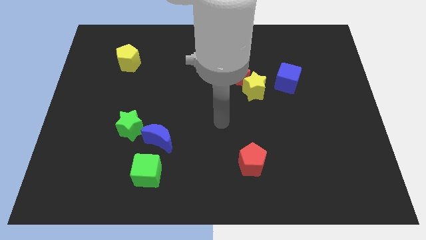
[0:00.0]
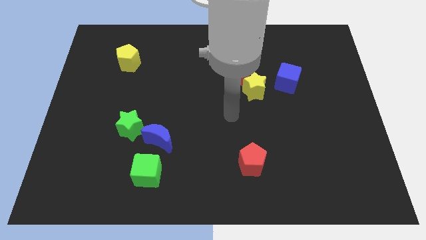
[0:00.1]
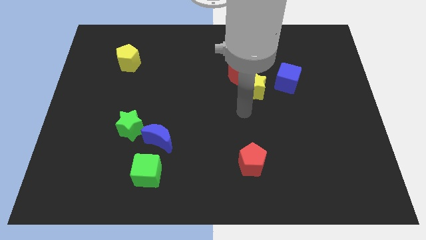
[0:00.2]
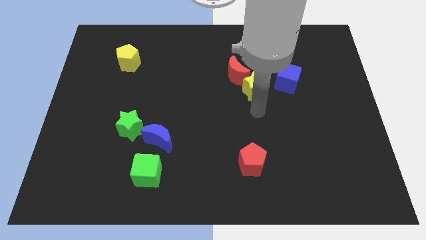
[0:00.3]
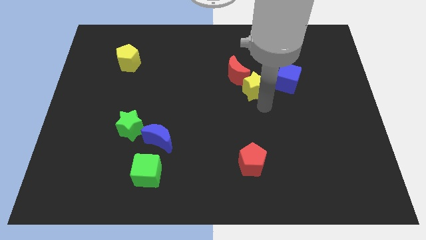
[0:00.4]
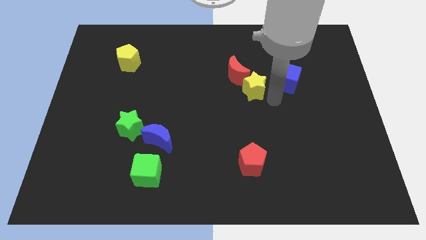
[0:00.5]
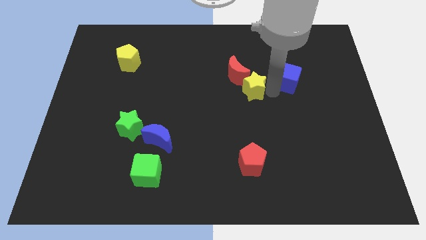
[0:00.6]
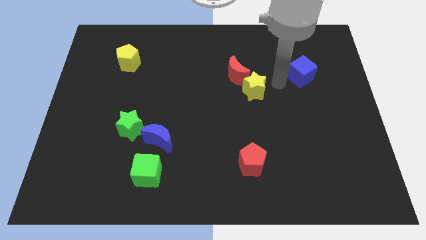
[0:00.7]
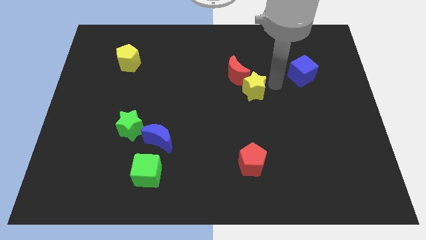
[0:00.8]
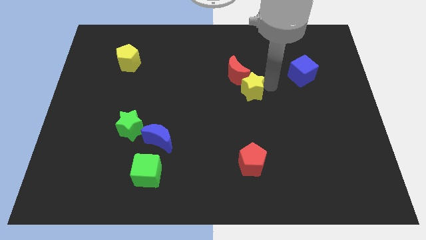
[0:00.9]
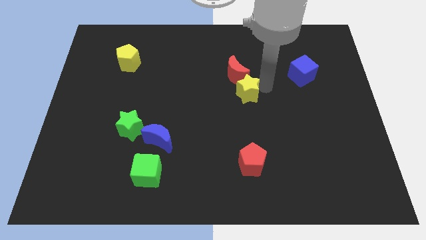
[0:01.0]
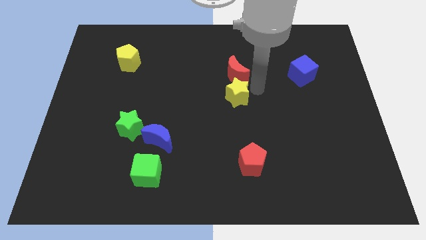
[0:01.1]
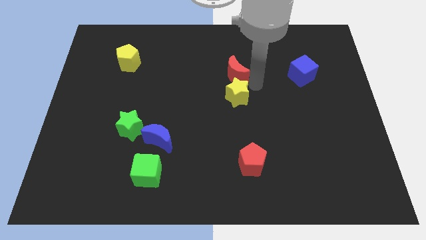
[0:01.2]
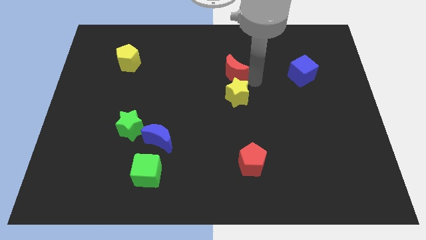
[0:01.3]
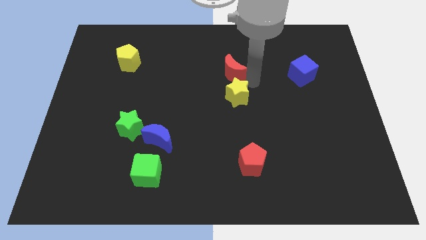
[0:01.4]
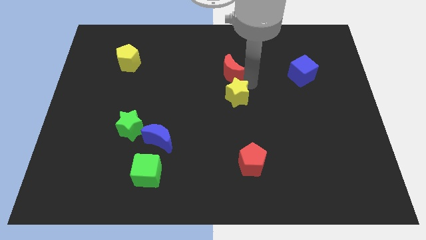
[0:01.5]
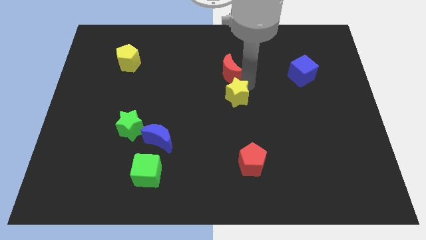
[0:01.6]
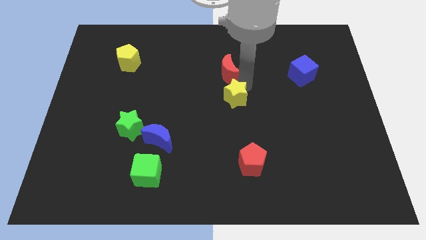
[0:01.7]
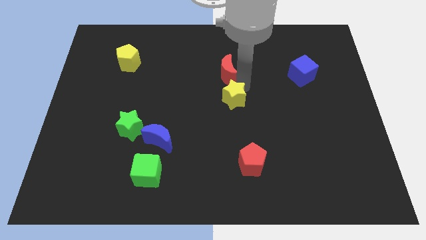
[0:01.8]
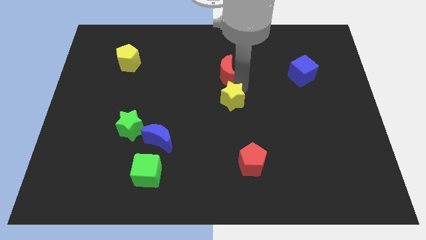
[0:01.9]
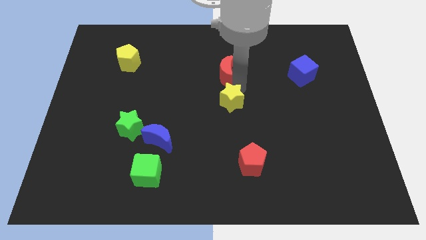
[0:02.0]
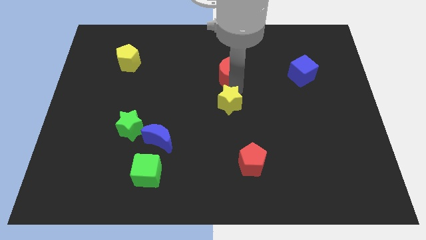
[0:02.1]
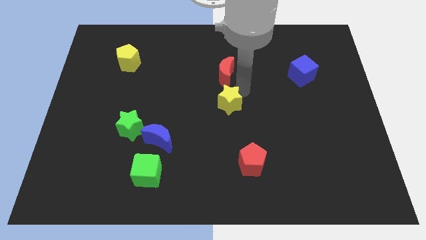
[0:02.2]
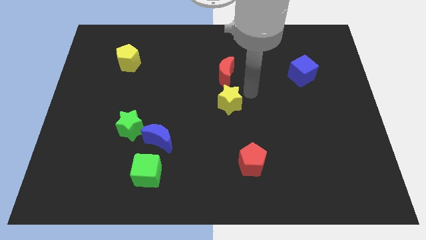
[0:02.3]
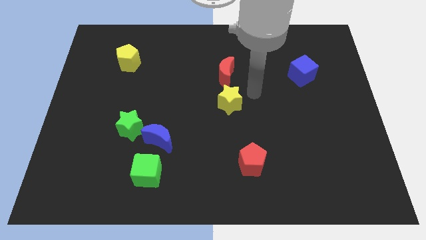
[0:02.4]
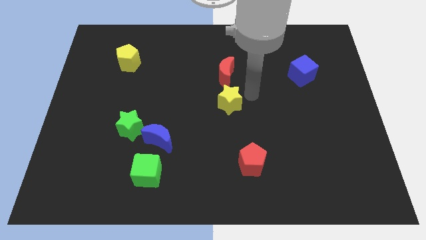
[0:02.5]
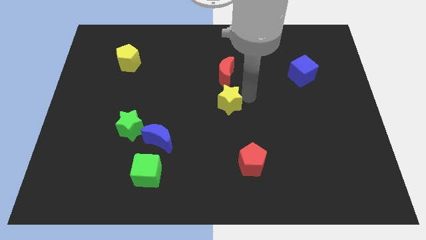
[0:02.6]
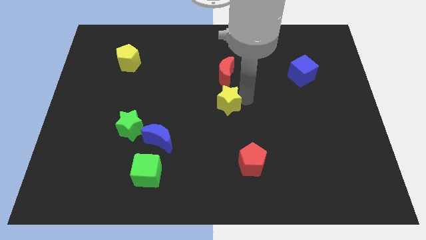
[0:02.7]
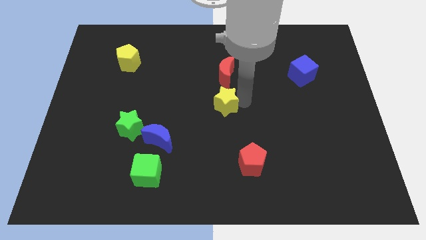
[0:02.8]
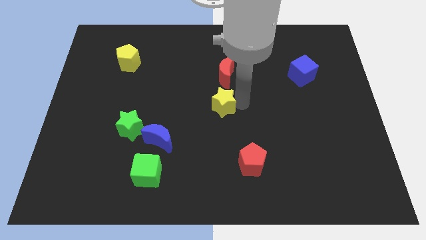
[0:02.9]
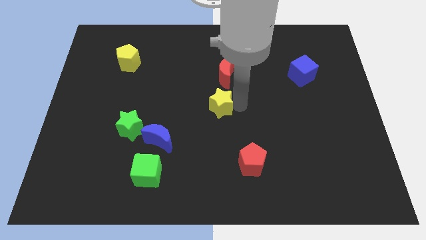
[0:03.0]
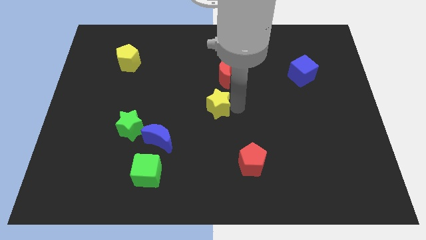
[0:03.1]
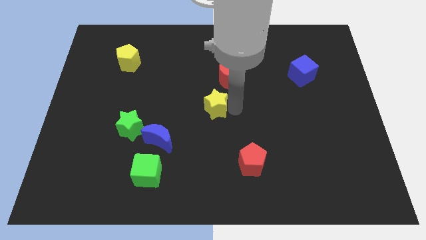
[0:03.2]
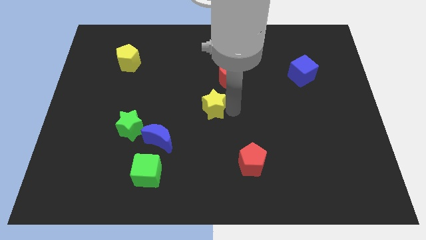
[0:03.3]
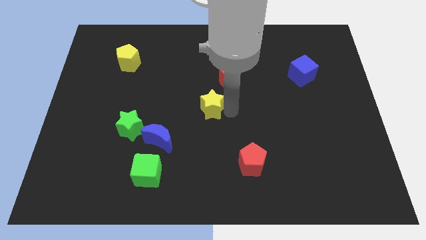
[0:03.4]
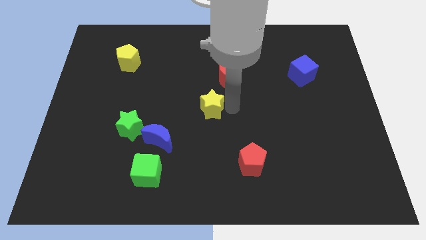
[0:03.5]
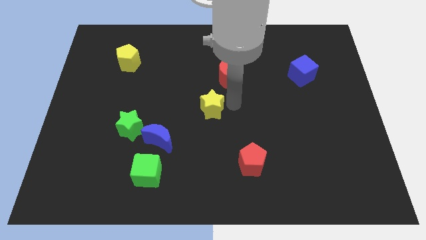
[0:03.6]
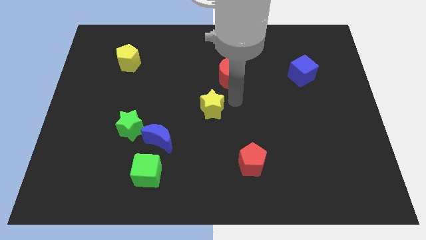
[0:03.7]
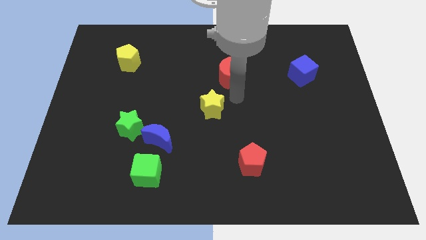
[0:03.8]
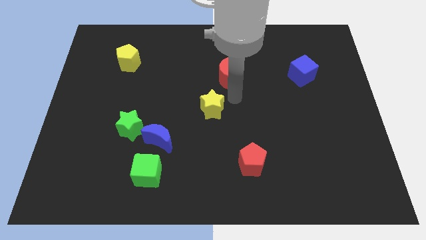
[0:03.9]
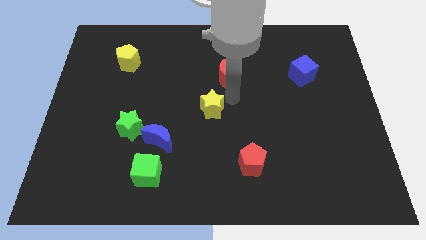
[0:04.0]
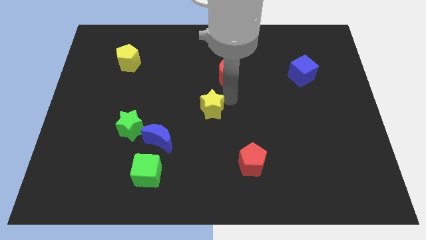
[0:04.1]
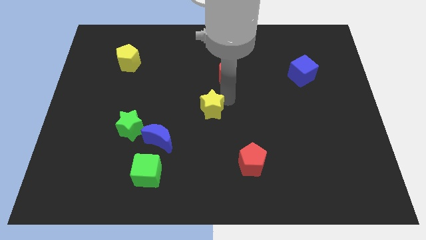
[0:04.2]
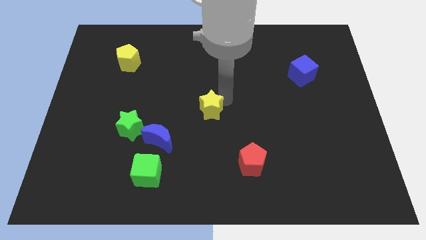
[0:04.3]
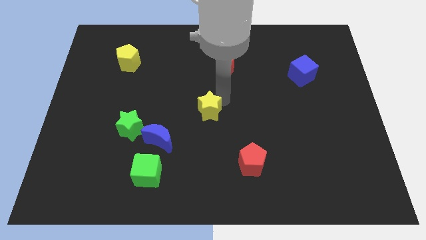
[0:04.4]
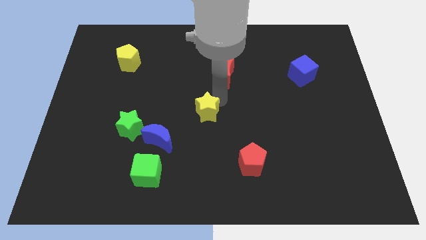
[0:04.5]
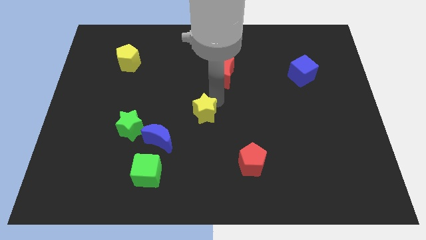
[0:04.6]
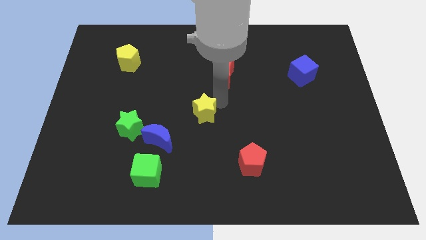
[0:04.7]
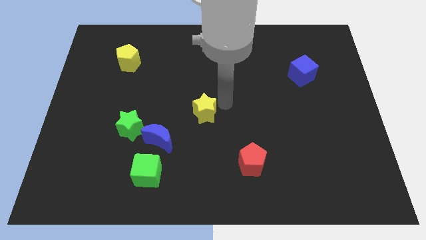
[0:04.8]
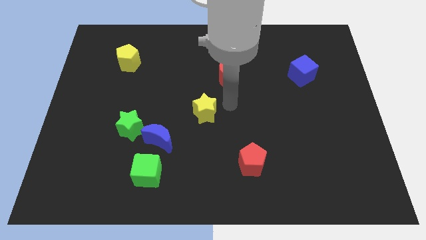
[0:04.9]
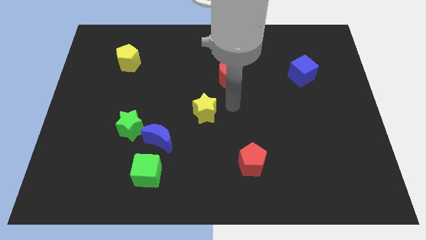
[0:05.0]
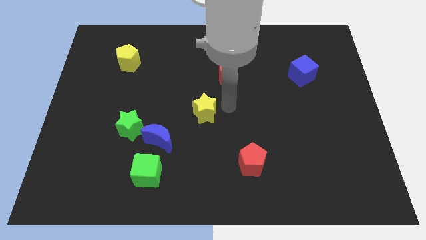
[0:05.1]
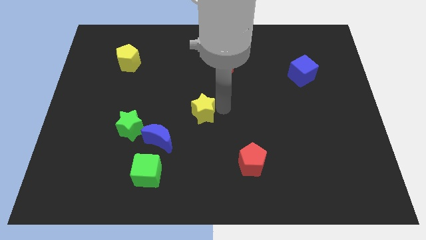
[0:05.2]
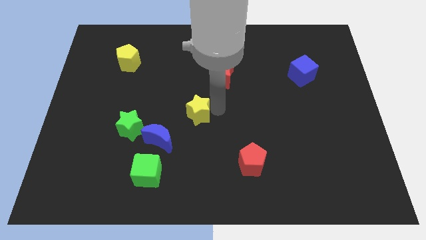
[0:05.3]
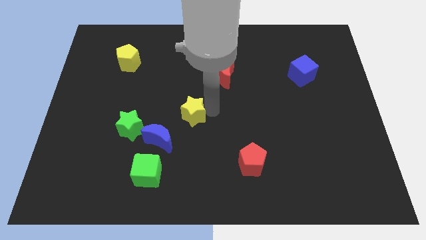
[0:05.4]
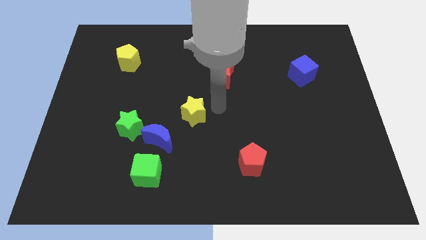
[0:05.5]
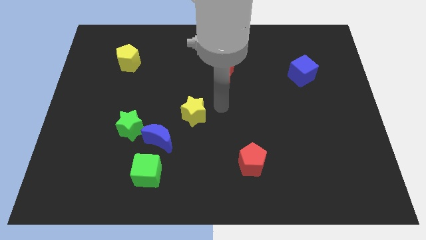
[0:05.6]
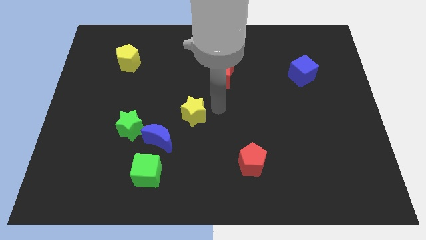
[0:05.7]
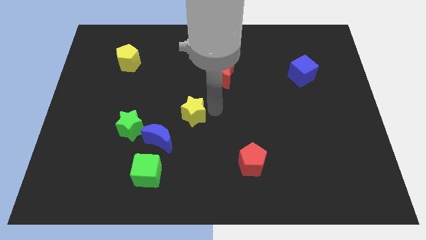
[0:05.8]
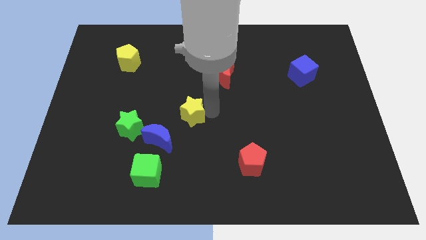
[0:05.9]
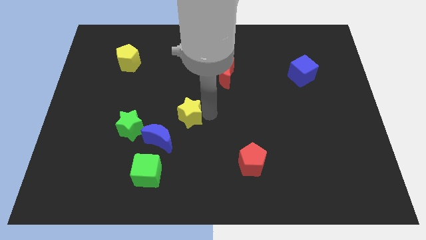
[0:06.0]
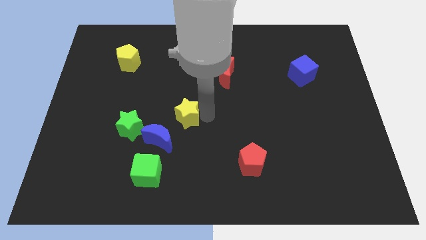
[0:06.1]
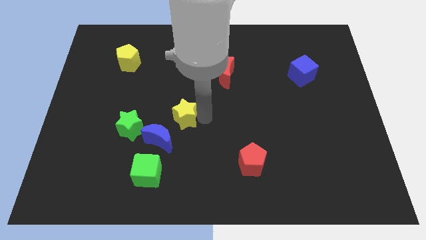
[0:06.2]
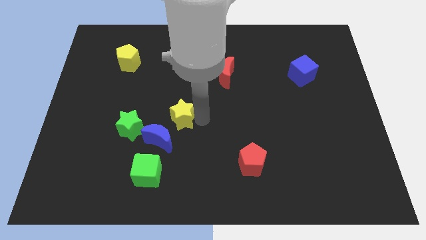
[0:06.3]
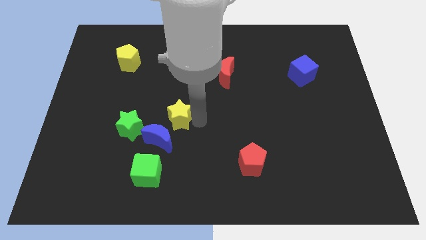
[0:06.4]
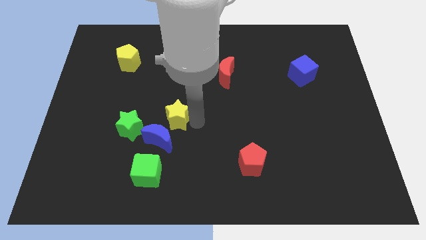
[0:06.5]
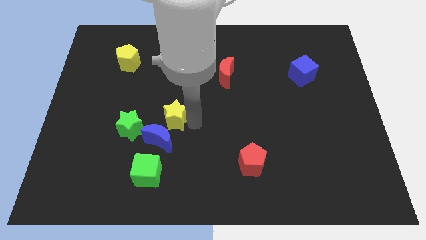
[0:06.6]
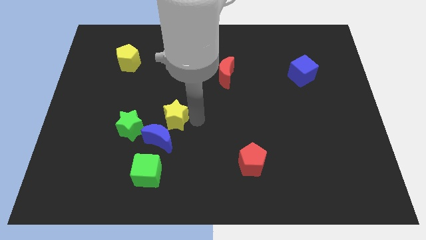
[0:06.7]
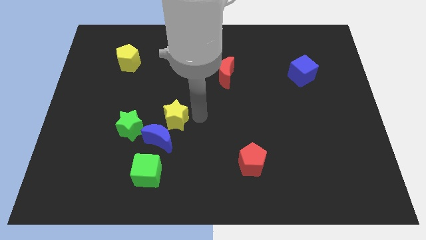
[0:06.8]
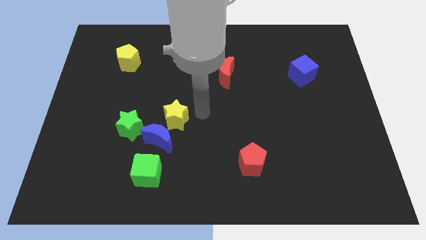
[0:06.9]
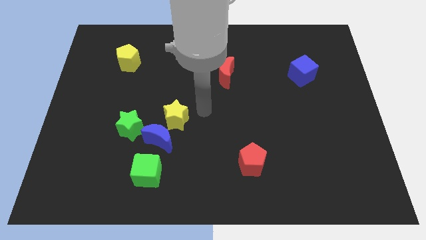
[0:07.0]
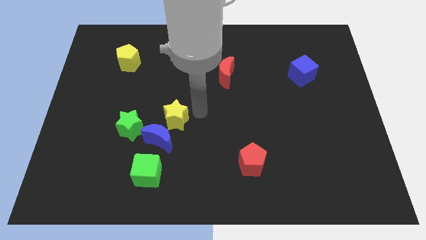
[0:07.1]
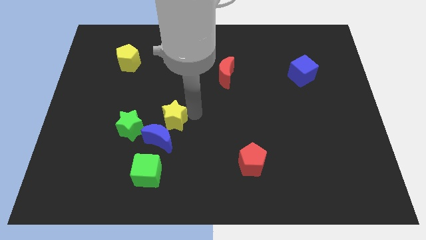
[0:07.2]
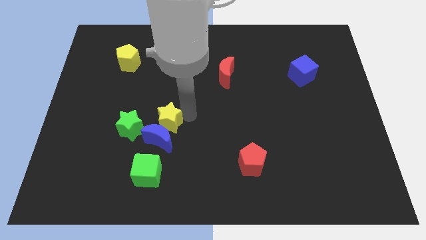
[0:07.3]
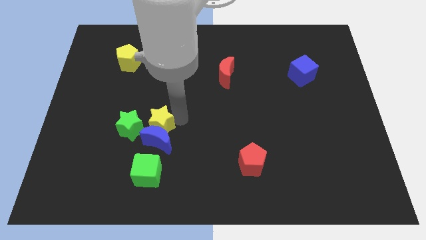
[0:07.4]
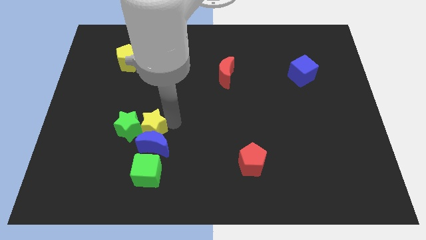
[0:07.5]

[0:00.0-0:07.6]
push the yellow star close to the green star
